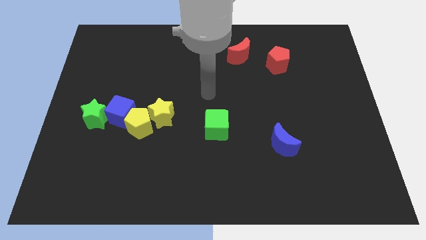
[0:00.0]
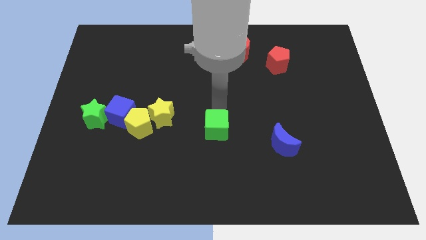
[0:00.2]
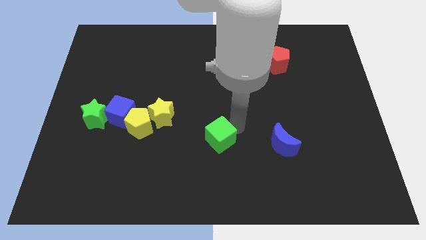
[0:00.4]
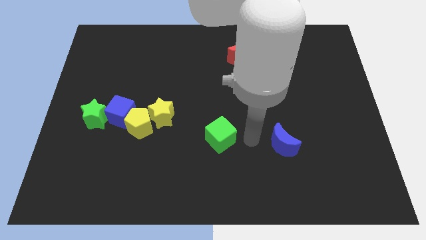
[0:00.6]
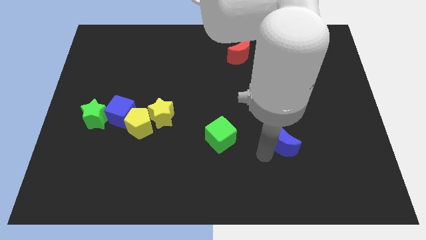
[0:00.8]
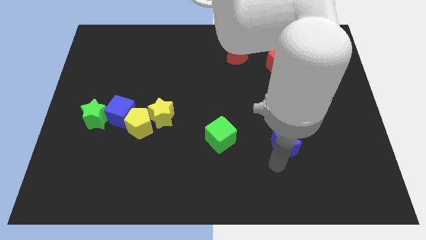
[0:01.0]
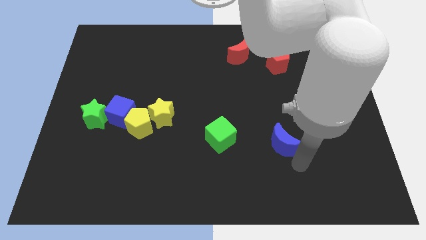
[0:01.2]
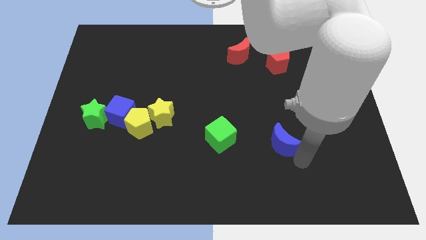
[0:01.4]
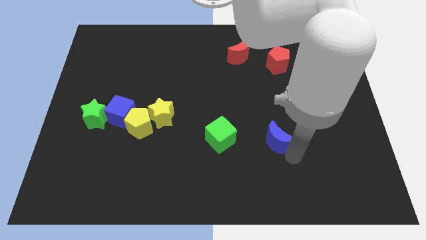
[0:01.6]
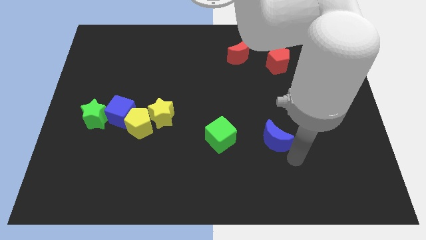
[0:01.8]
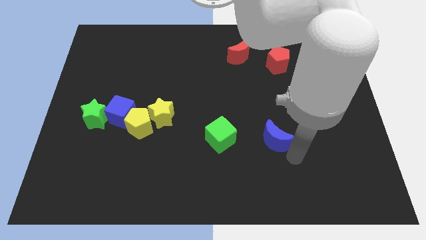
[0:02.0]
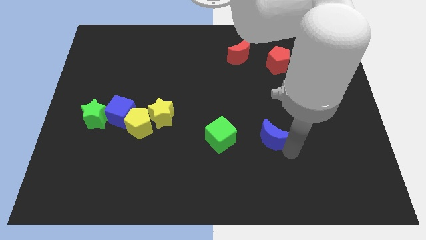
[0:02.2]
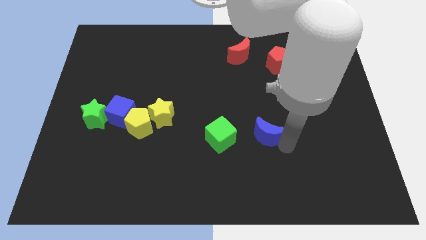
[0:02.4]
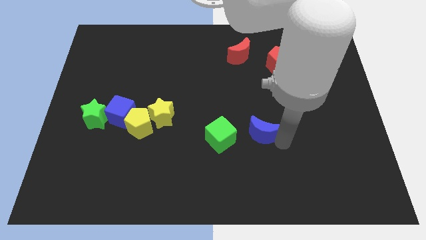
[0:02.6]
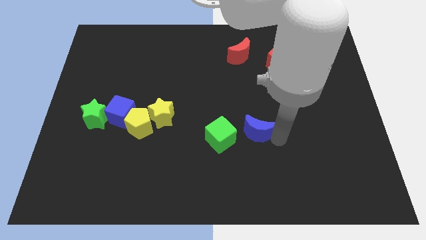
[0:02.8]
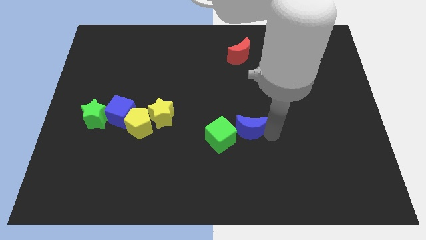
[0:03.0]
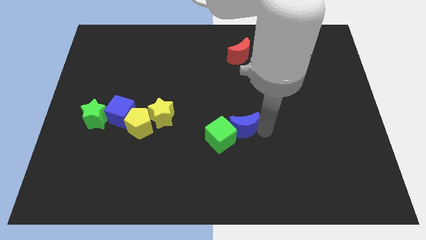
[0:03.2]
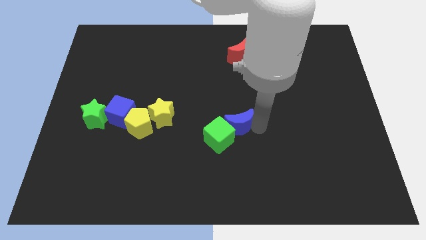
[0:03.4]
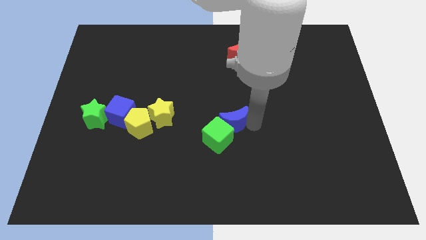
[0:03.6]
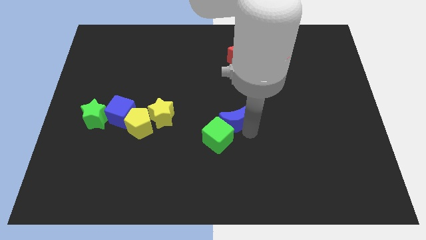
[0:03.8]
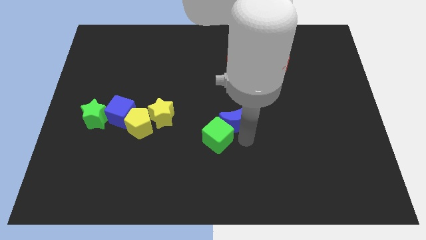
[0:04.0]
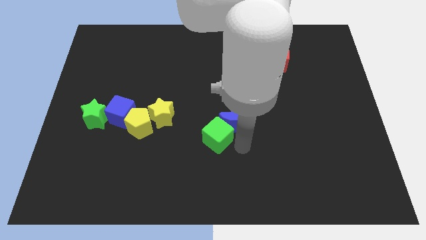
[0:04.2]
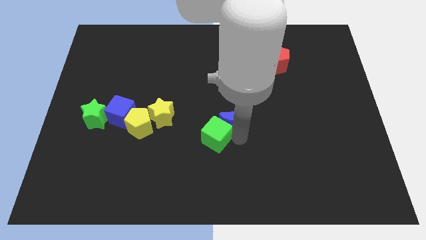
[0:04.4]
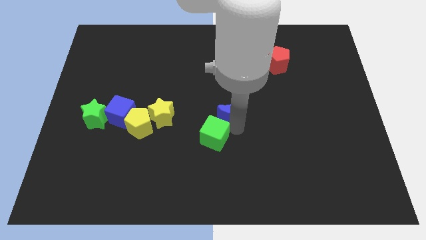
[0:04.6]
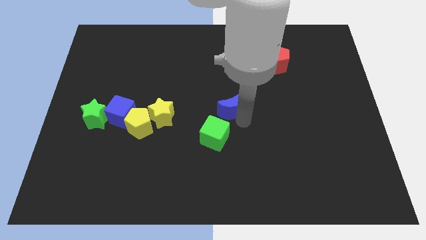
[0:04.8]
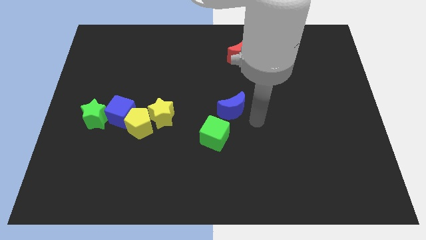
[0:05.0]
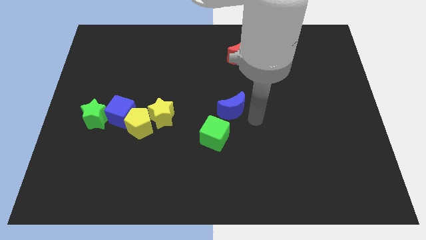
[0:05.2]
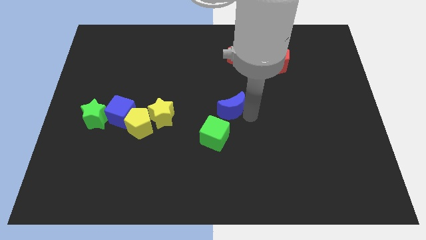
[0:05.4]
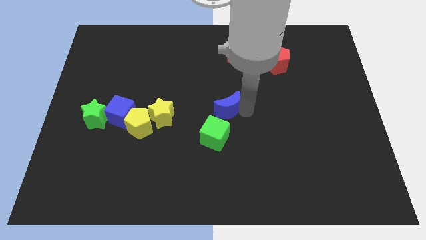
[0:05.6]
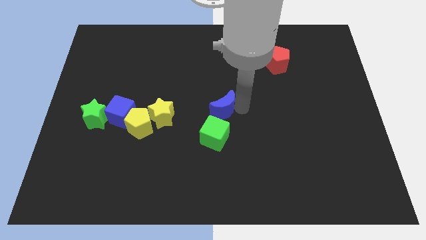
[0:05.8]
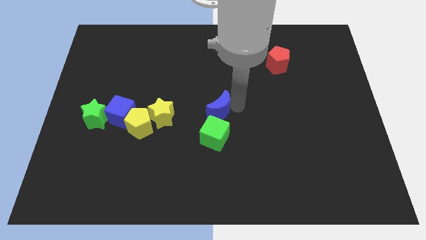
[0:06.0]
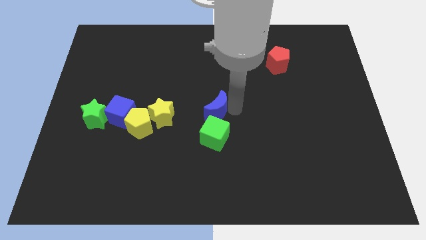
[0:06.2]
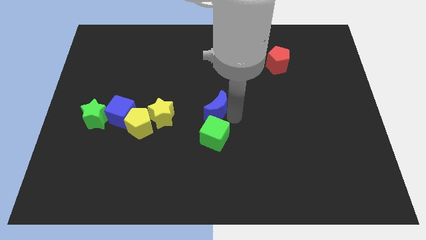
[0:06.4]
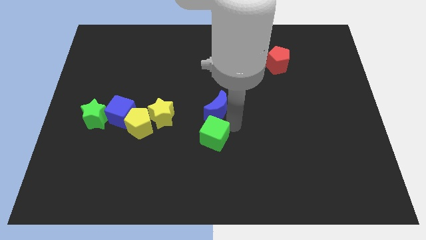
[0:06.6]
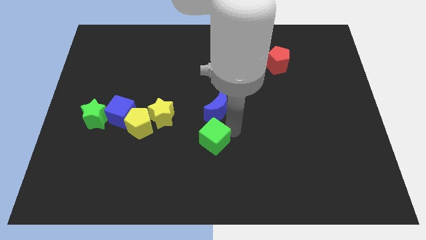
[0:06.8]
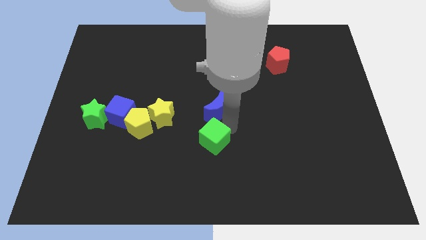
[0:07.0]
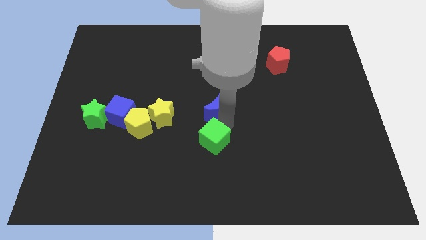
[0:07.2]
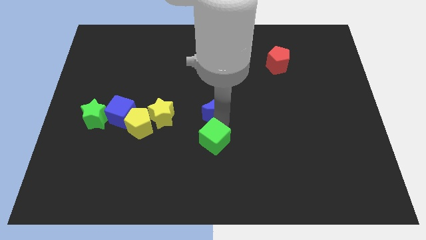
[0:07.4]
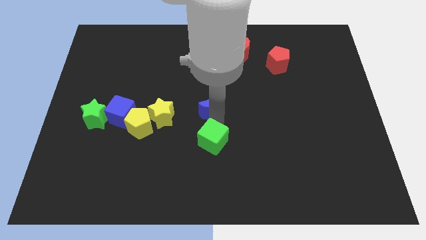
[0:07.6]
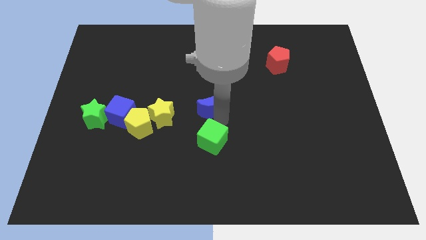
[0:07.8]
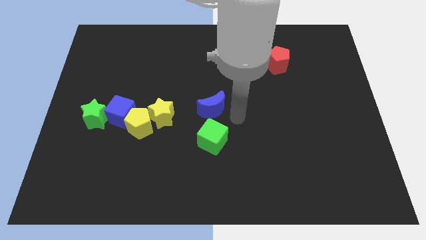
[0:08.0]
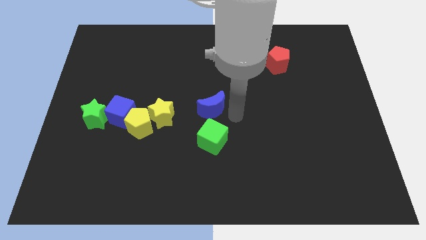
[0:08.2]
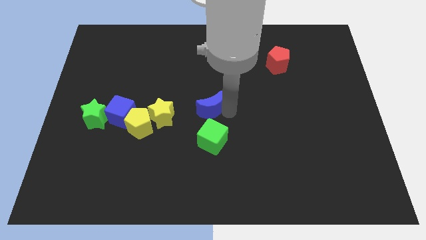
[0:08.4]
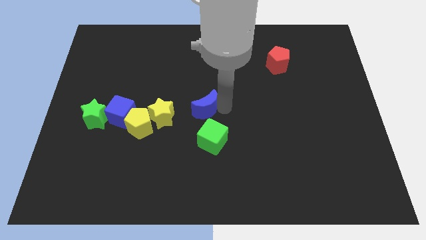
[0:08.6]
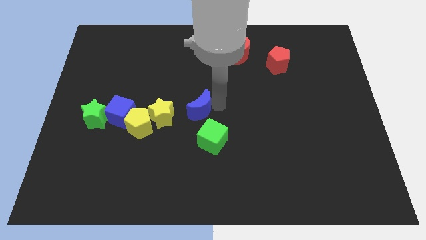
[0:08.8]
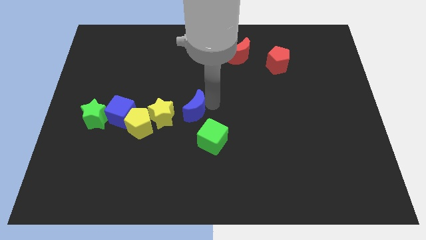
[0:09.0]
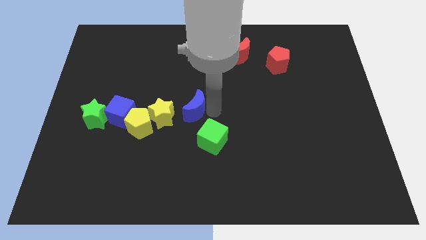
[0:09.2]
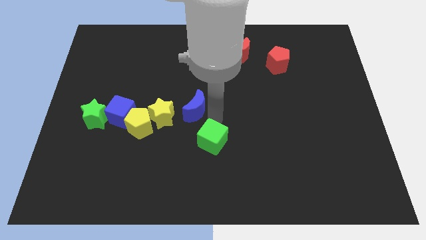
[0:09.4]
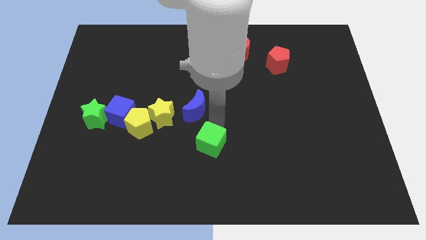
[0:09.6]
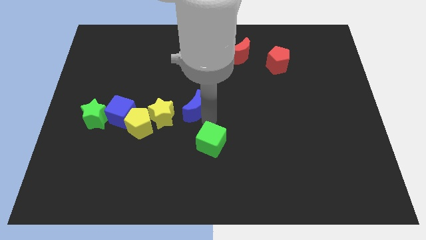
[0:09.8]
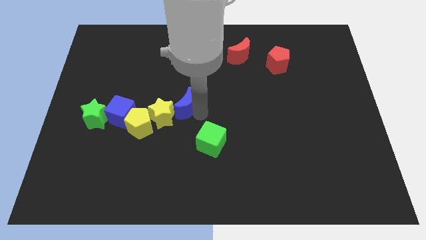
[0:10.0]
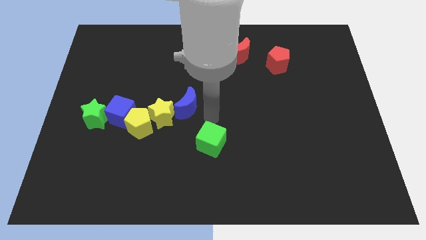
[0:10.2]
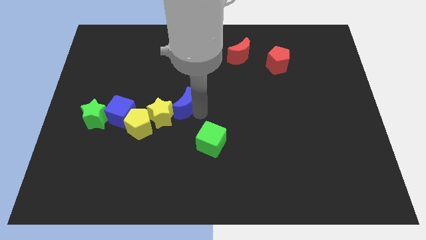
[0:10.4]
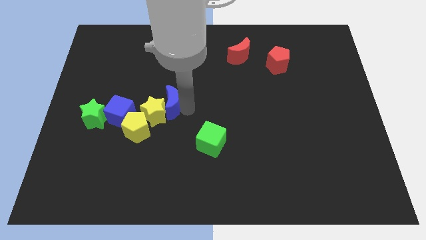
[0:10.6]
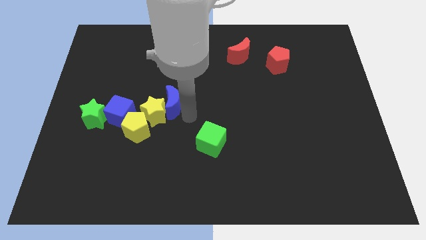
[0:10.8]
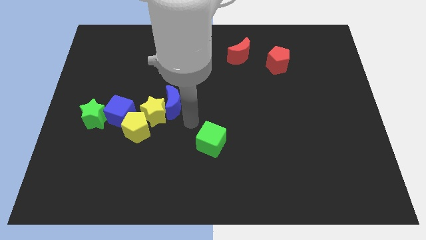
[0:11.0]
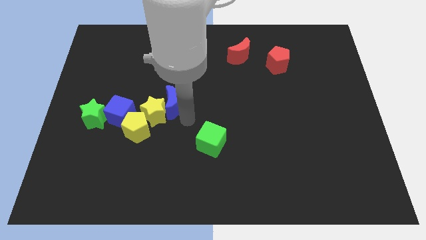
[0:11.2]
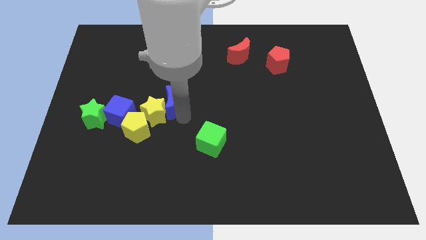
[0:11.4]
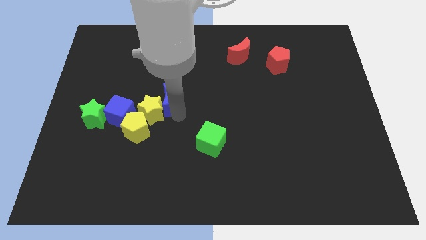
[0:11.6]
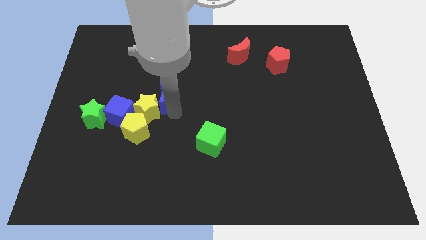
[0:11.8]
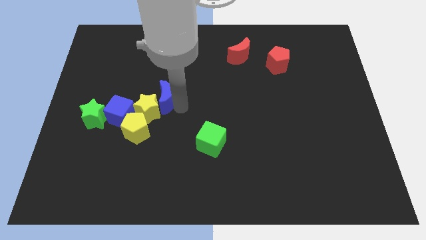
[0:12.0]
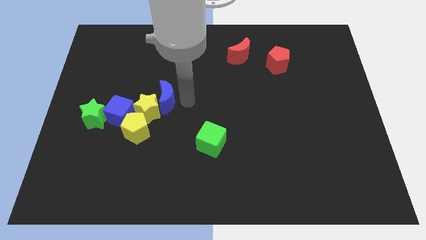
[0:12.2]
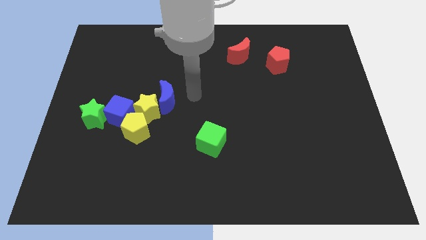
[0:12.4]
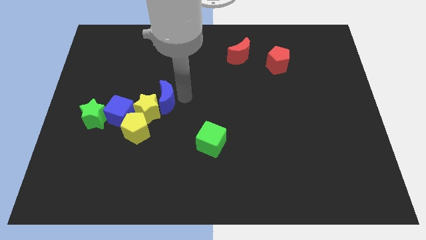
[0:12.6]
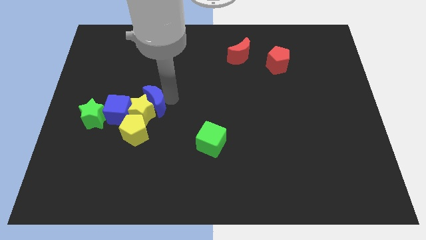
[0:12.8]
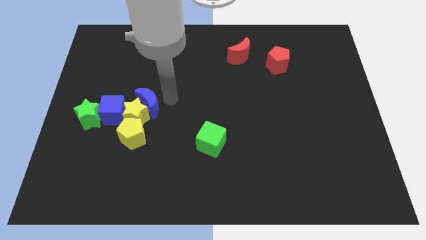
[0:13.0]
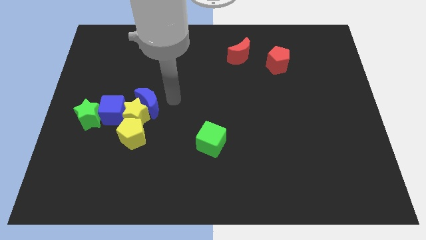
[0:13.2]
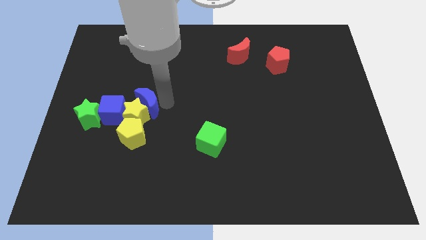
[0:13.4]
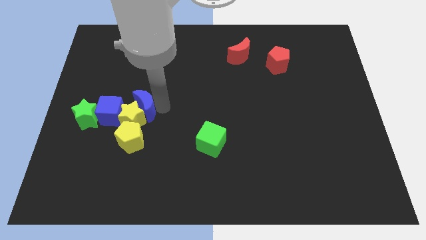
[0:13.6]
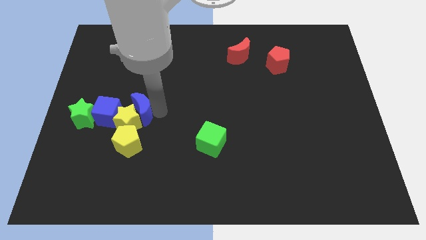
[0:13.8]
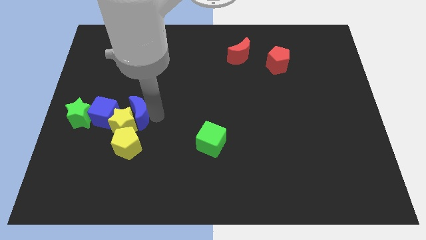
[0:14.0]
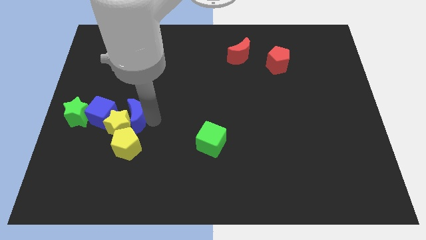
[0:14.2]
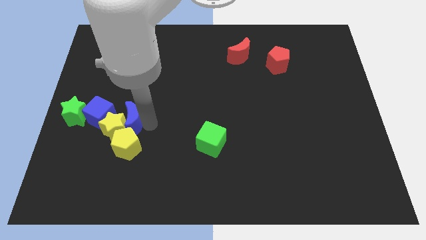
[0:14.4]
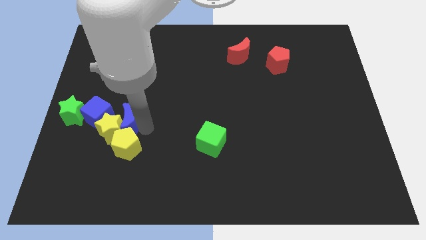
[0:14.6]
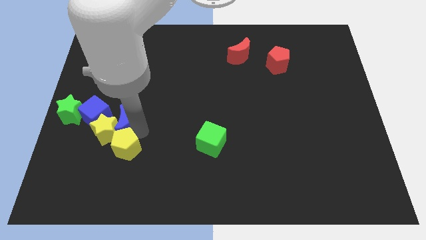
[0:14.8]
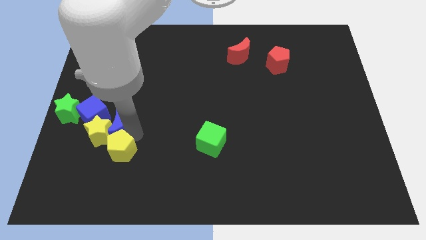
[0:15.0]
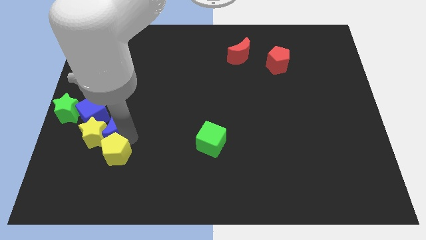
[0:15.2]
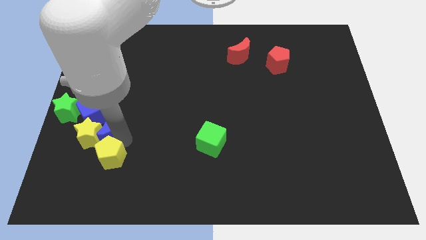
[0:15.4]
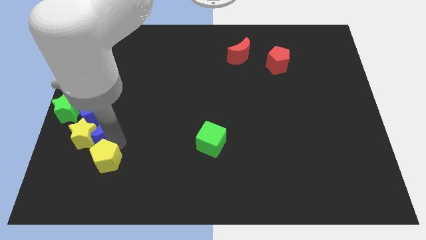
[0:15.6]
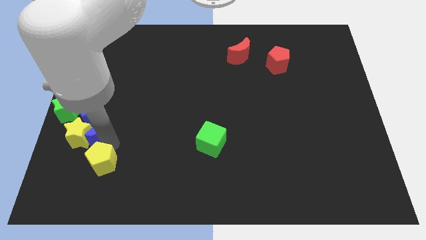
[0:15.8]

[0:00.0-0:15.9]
put the blue moon to the blue cube
